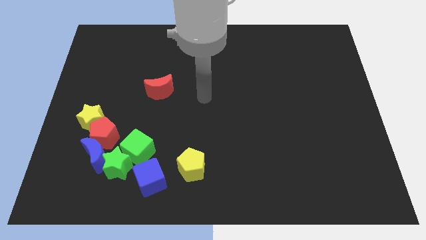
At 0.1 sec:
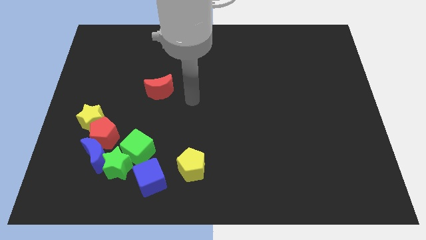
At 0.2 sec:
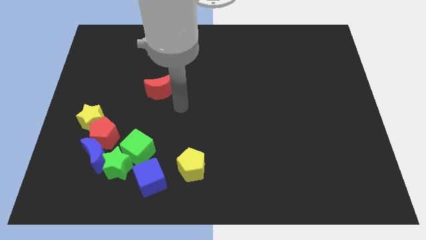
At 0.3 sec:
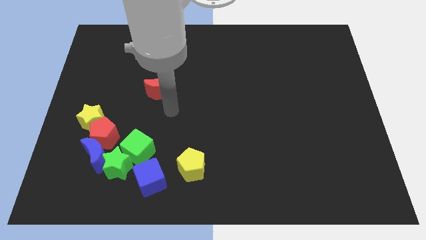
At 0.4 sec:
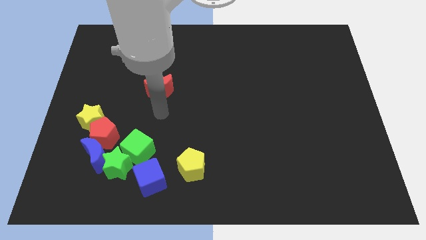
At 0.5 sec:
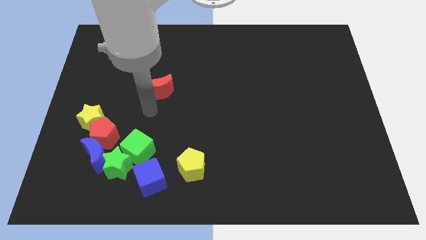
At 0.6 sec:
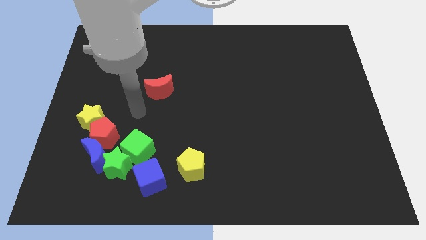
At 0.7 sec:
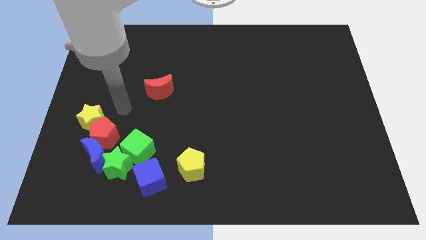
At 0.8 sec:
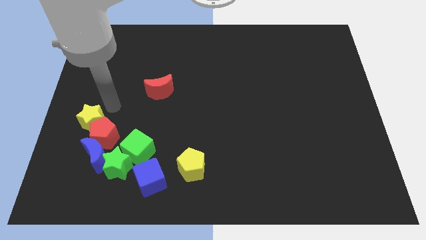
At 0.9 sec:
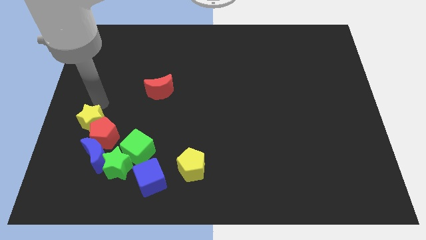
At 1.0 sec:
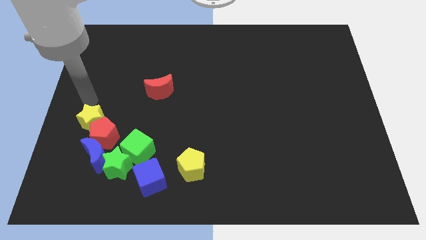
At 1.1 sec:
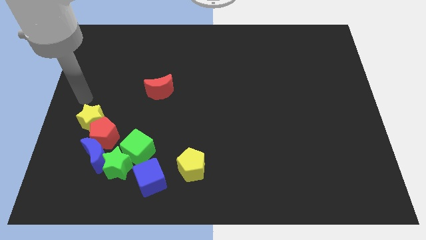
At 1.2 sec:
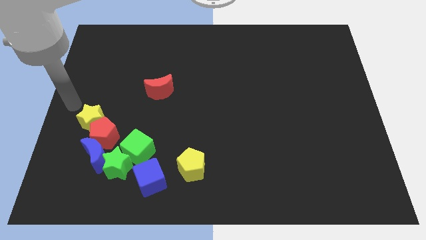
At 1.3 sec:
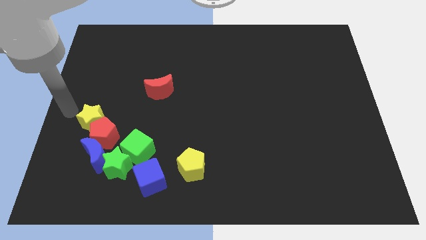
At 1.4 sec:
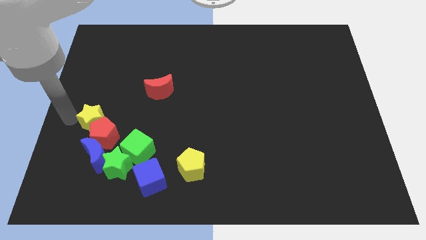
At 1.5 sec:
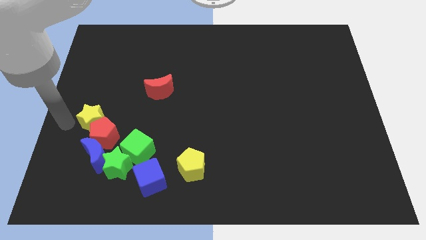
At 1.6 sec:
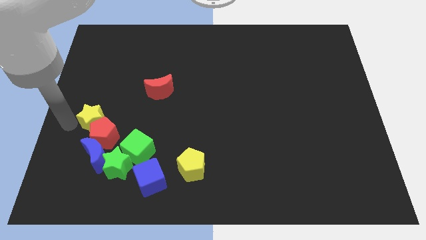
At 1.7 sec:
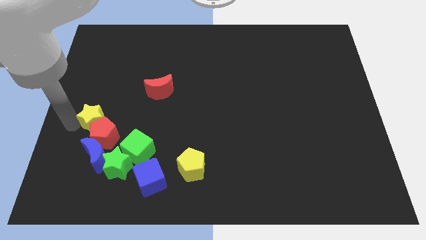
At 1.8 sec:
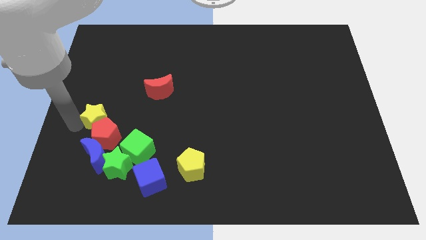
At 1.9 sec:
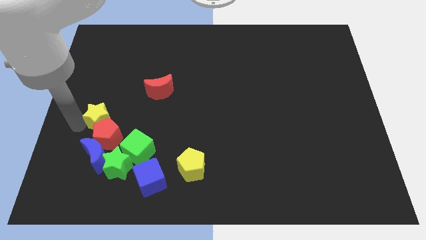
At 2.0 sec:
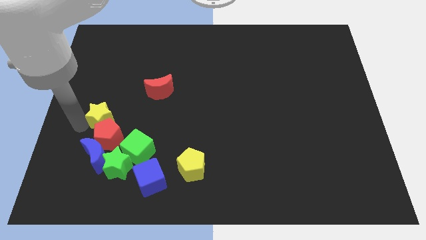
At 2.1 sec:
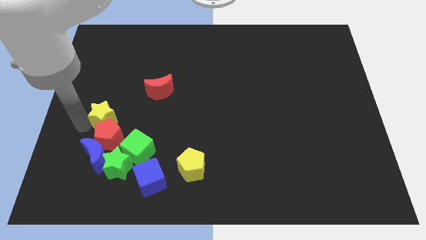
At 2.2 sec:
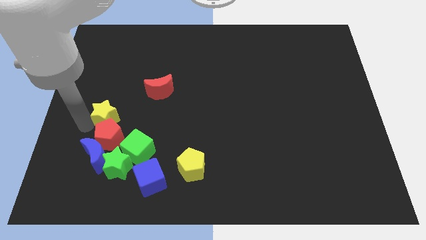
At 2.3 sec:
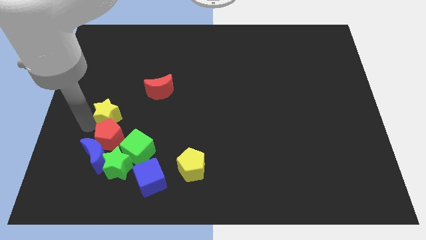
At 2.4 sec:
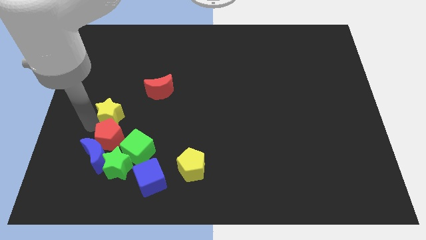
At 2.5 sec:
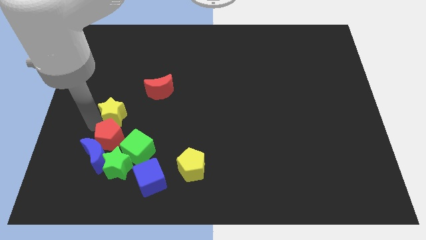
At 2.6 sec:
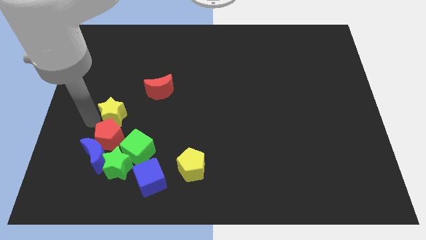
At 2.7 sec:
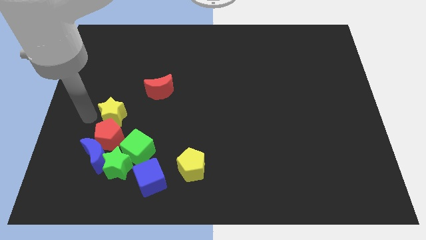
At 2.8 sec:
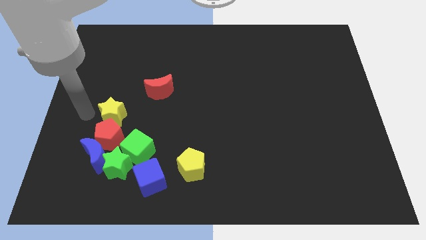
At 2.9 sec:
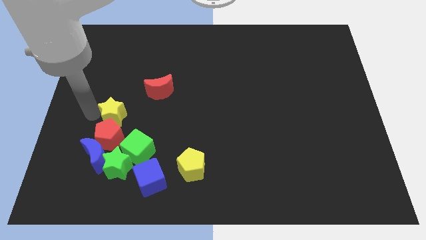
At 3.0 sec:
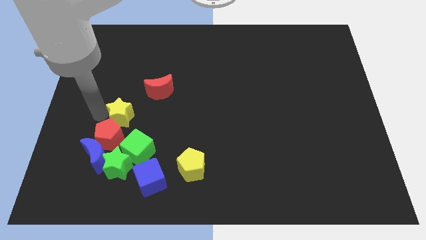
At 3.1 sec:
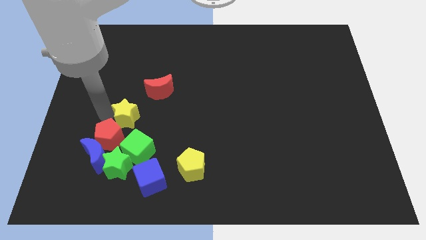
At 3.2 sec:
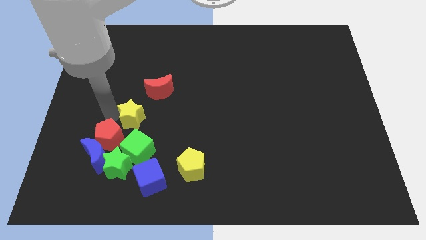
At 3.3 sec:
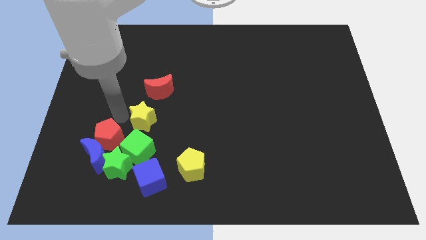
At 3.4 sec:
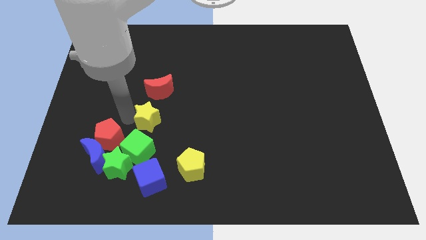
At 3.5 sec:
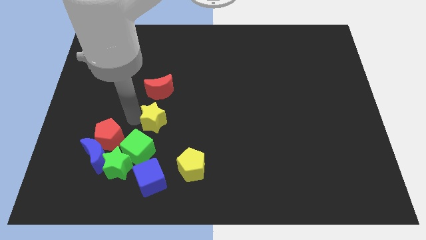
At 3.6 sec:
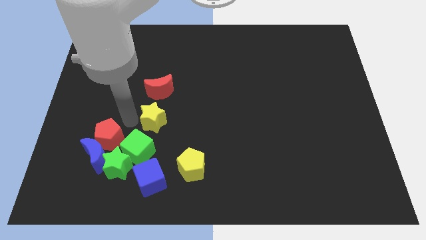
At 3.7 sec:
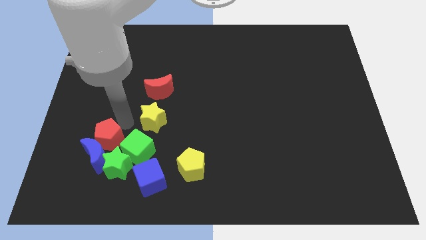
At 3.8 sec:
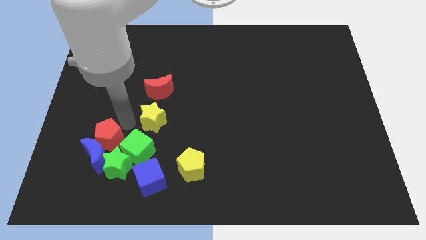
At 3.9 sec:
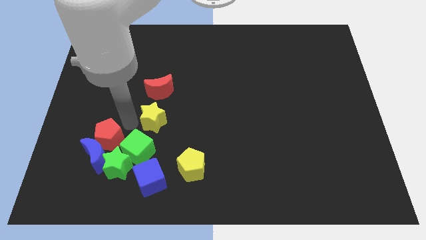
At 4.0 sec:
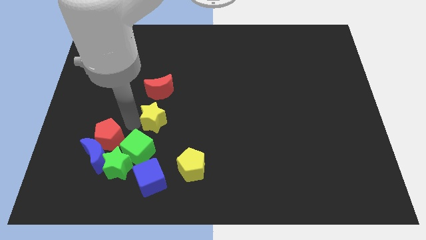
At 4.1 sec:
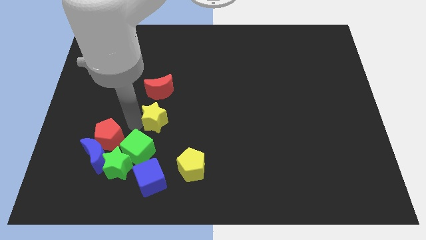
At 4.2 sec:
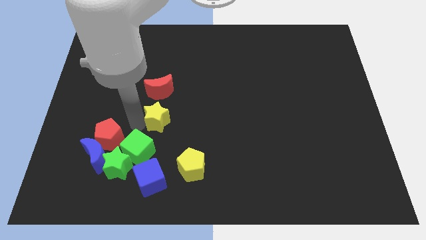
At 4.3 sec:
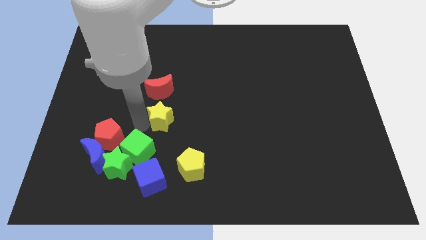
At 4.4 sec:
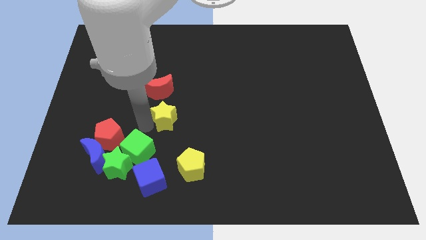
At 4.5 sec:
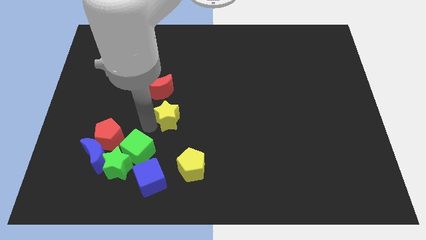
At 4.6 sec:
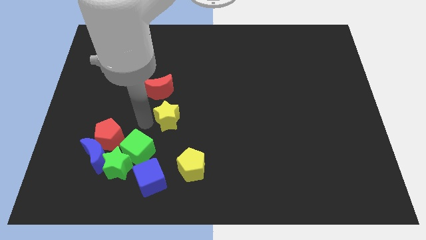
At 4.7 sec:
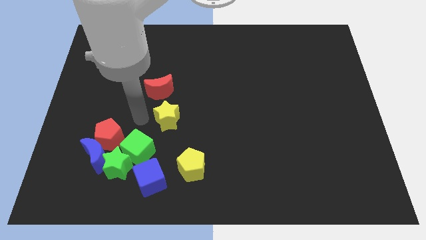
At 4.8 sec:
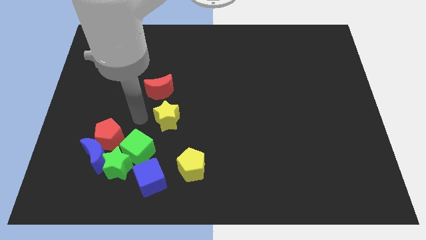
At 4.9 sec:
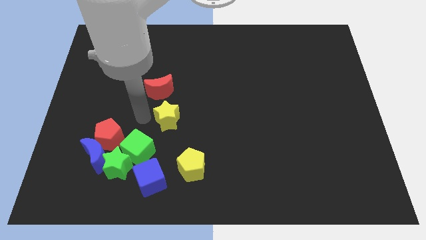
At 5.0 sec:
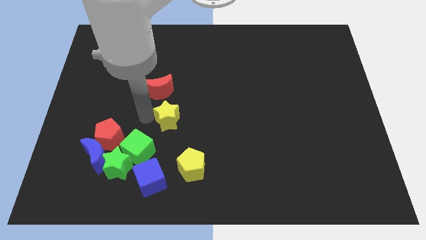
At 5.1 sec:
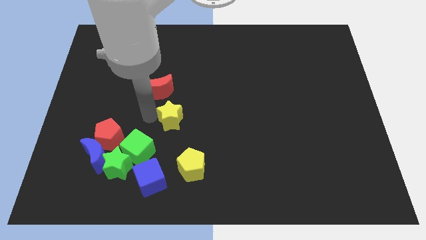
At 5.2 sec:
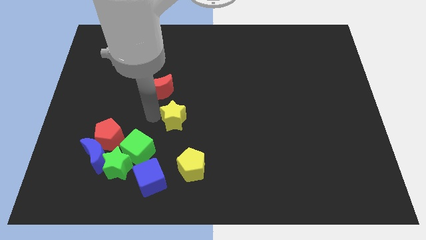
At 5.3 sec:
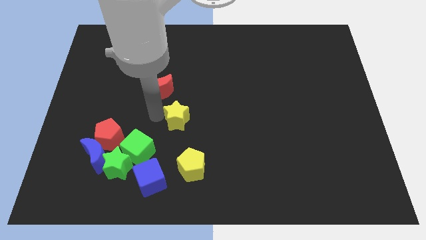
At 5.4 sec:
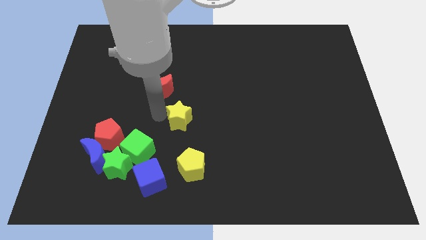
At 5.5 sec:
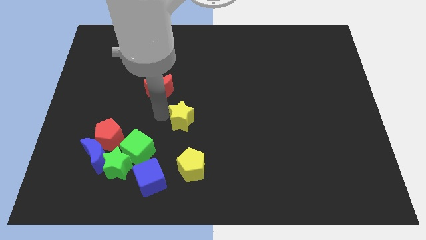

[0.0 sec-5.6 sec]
push the yellow star to the right

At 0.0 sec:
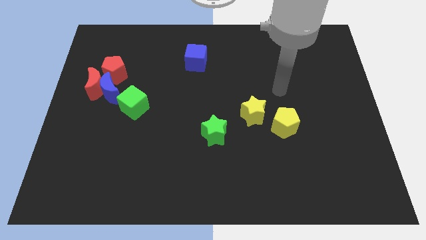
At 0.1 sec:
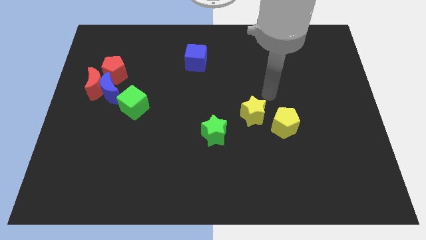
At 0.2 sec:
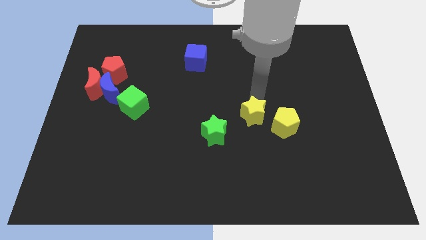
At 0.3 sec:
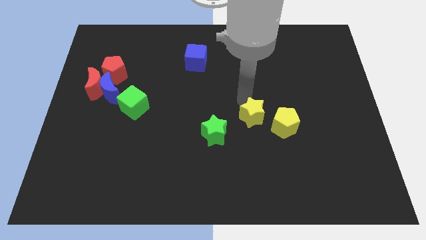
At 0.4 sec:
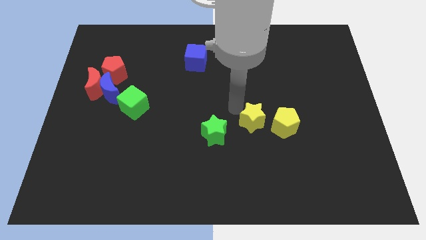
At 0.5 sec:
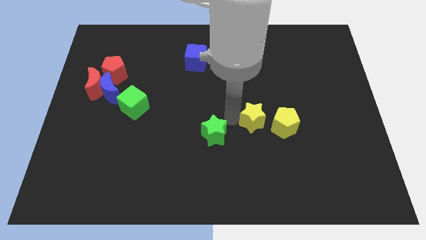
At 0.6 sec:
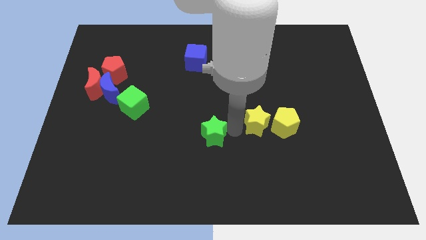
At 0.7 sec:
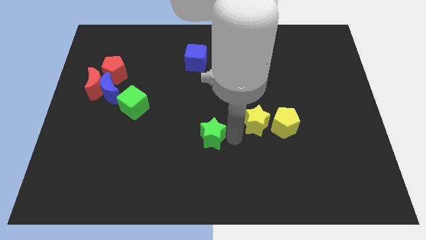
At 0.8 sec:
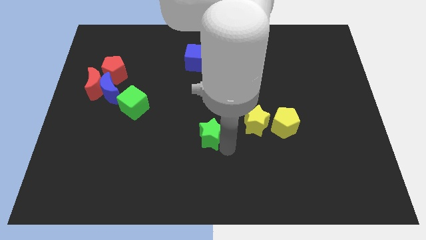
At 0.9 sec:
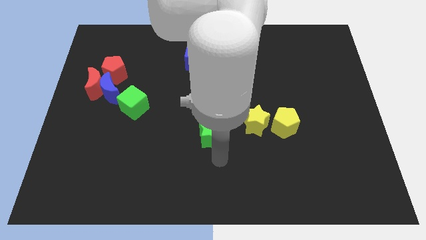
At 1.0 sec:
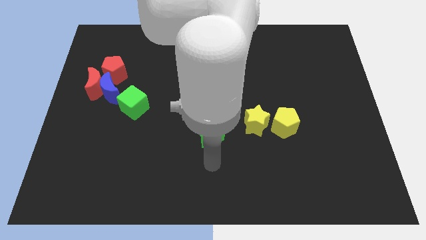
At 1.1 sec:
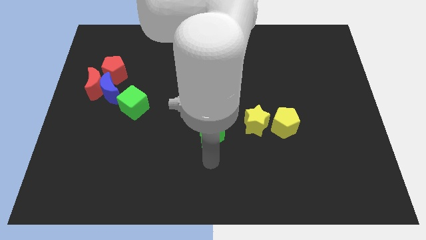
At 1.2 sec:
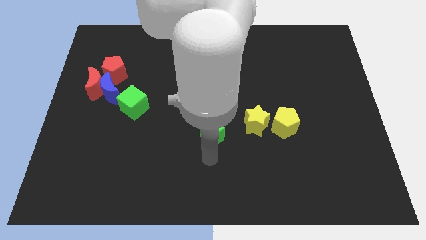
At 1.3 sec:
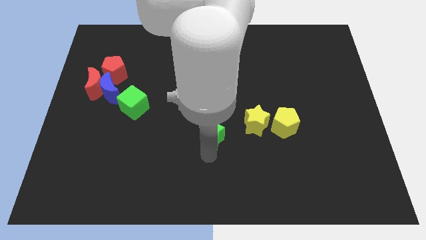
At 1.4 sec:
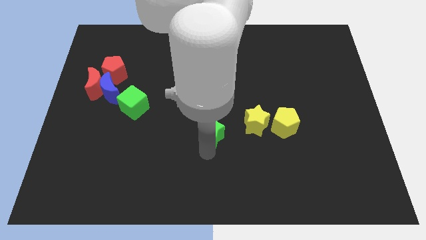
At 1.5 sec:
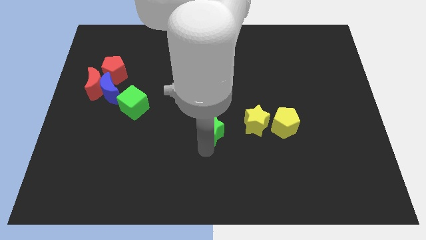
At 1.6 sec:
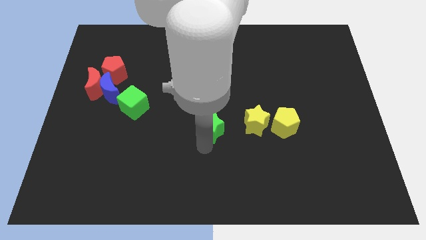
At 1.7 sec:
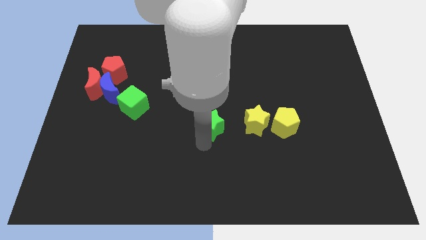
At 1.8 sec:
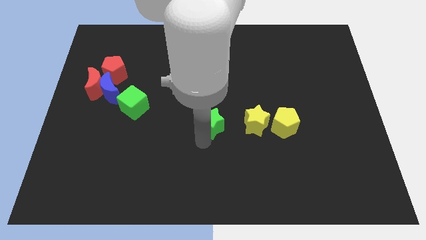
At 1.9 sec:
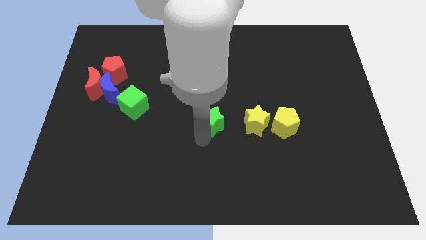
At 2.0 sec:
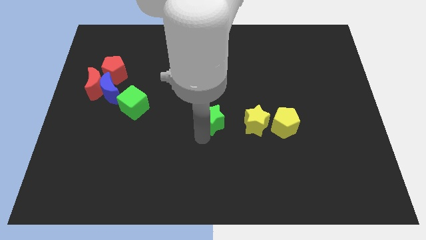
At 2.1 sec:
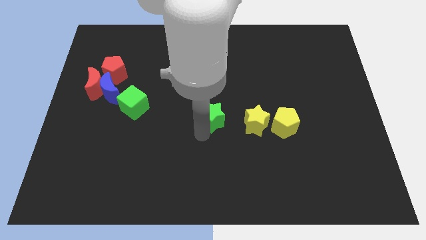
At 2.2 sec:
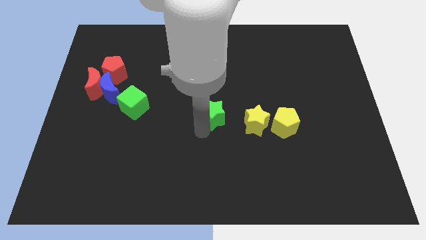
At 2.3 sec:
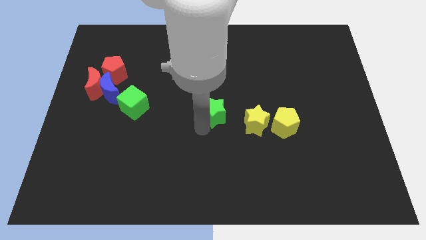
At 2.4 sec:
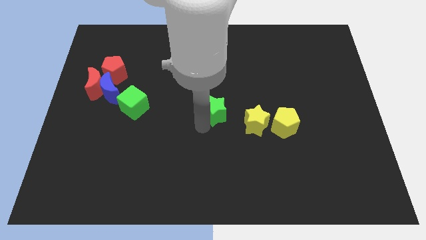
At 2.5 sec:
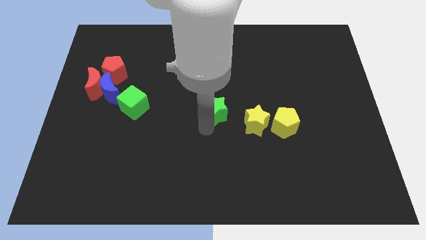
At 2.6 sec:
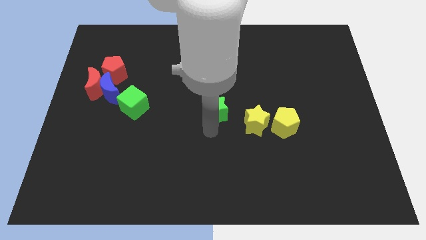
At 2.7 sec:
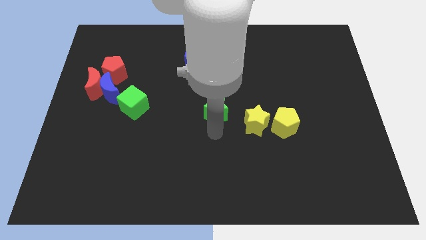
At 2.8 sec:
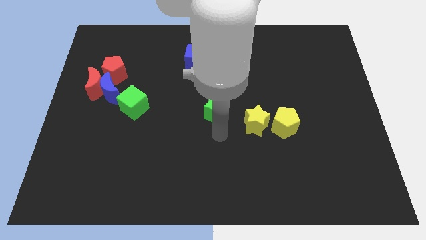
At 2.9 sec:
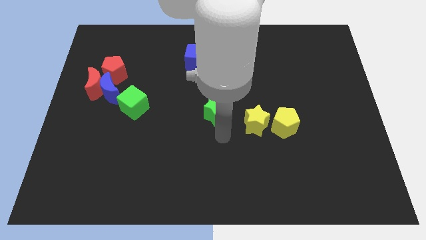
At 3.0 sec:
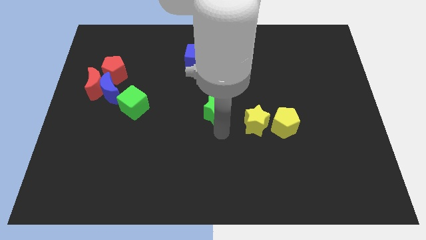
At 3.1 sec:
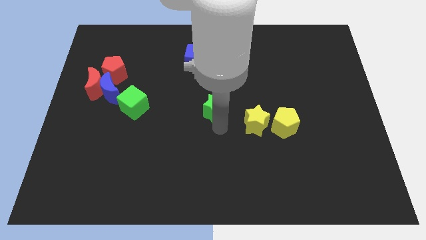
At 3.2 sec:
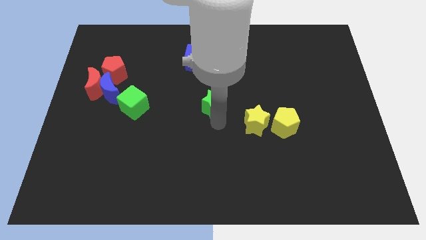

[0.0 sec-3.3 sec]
slightly move the green star upwards
